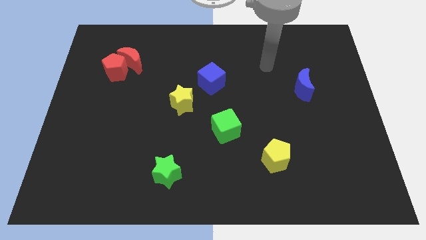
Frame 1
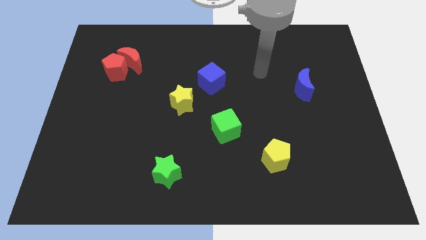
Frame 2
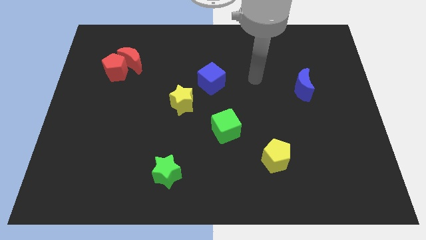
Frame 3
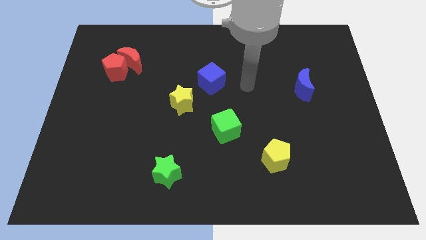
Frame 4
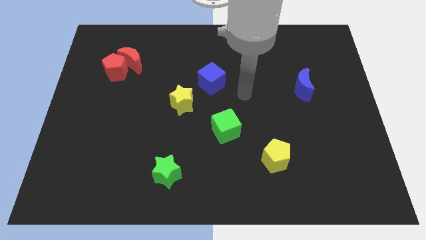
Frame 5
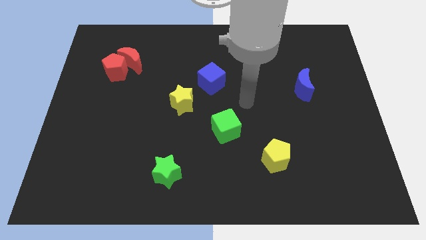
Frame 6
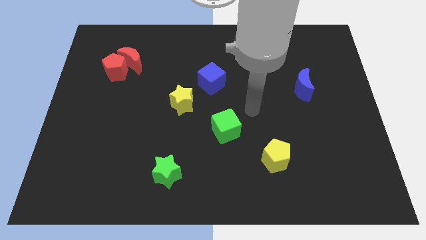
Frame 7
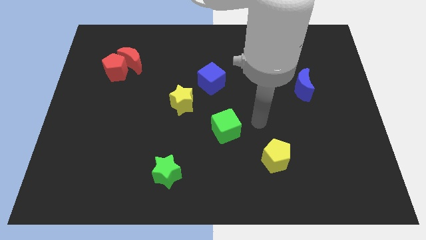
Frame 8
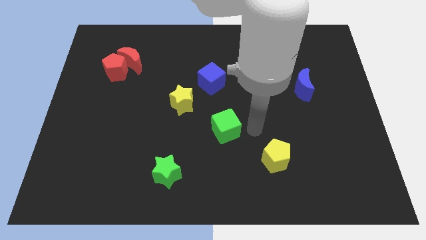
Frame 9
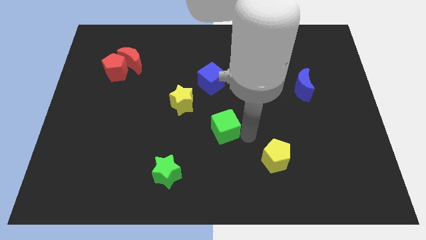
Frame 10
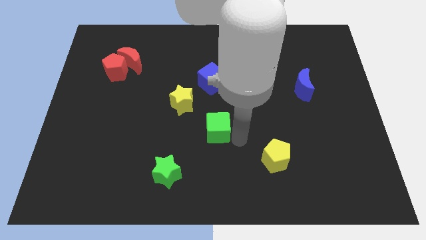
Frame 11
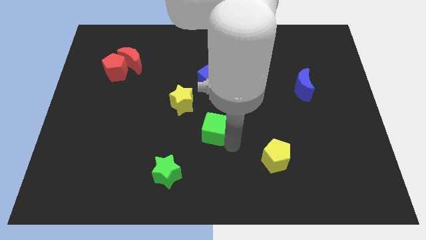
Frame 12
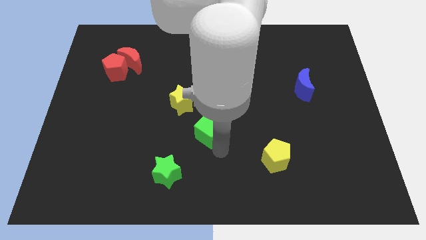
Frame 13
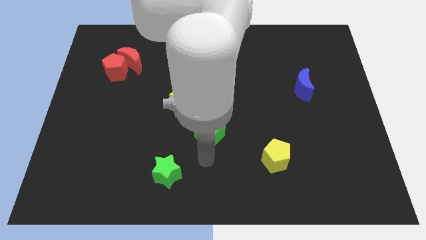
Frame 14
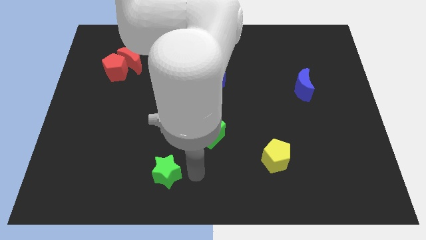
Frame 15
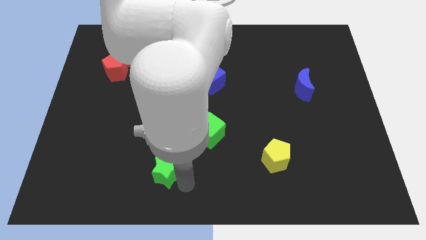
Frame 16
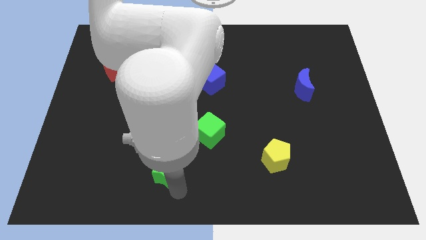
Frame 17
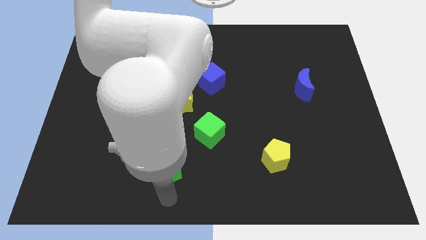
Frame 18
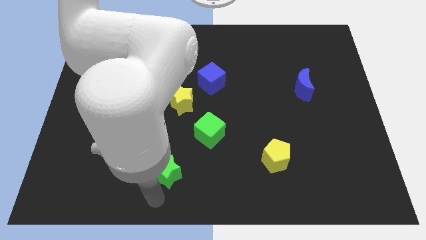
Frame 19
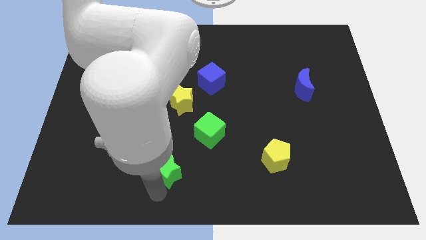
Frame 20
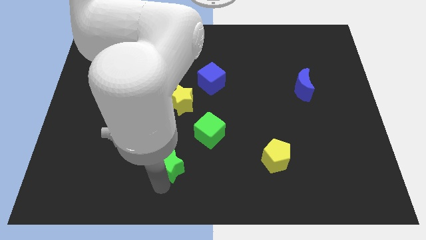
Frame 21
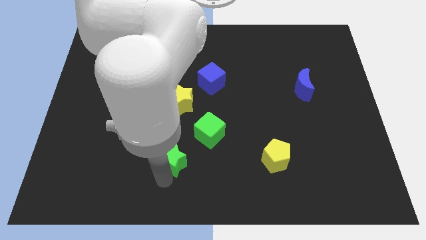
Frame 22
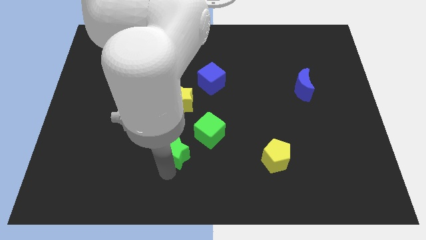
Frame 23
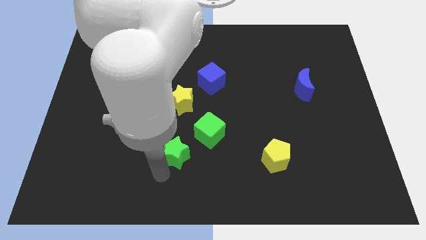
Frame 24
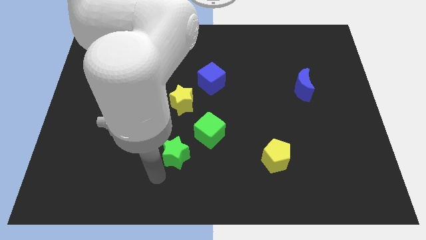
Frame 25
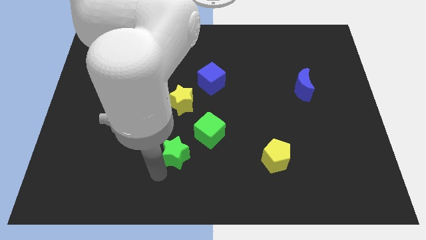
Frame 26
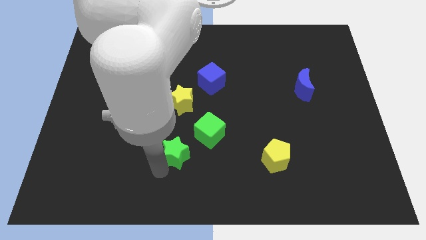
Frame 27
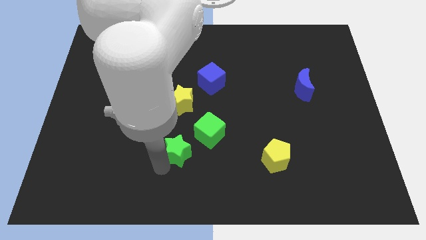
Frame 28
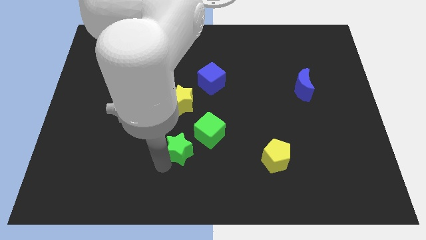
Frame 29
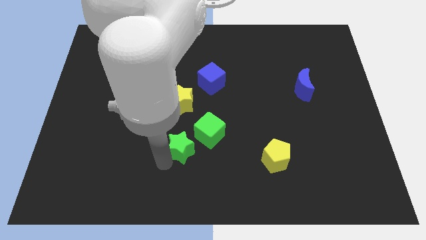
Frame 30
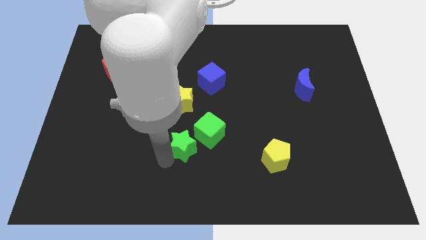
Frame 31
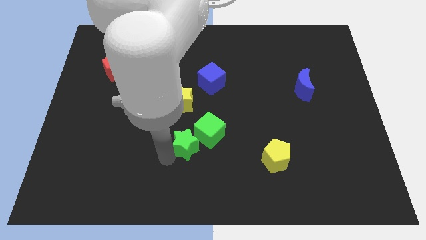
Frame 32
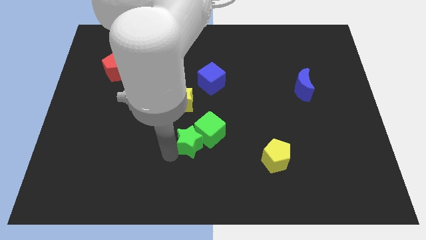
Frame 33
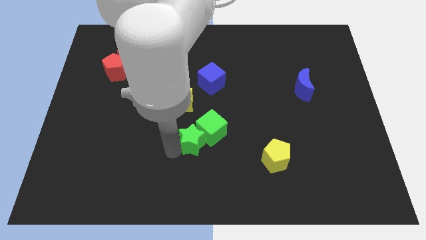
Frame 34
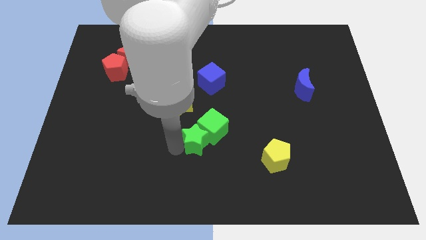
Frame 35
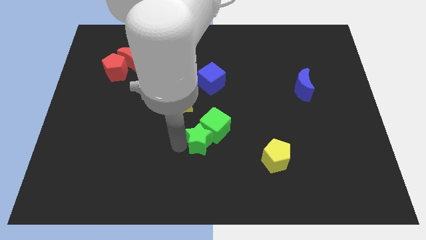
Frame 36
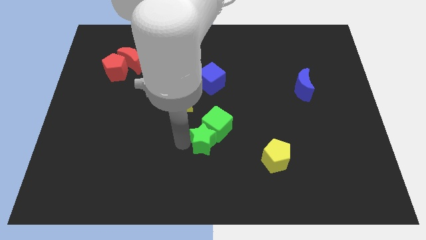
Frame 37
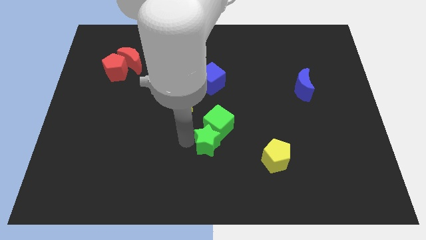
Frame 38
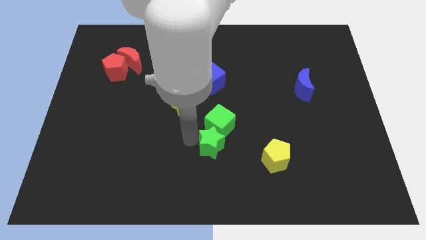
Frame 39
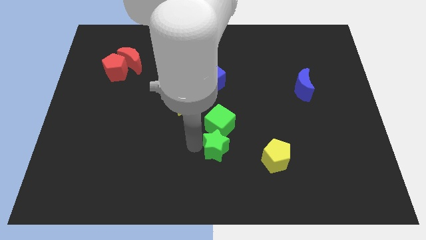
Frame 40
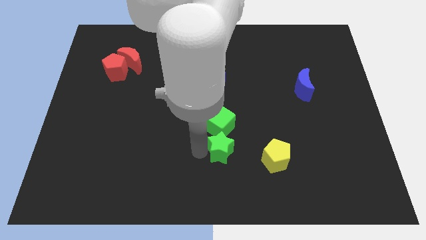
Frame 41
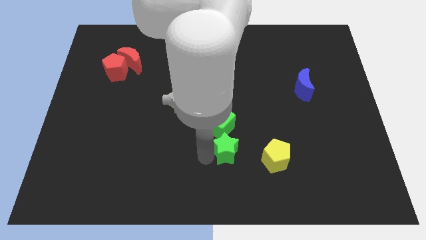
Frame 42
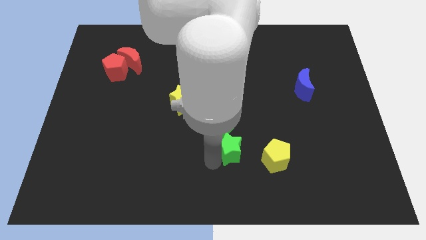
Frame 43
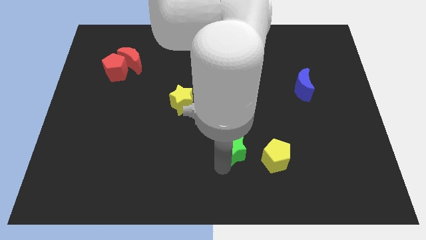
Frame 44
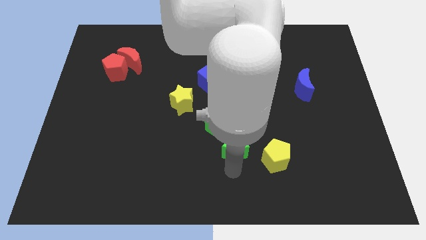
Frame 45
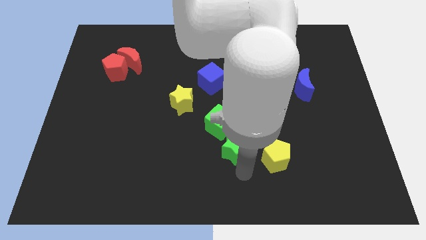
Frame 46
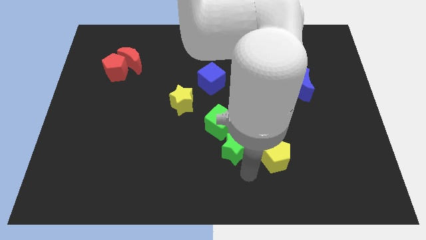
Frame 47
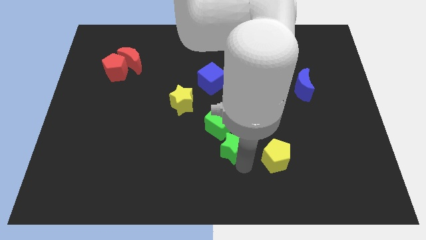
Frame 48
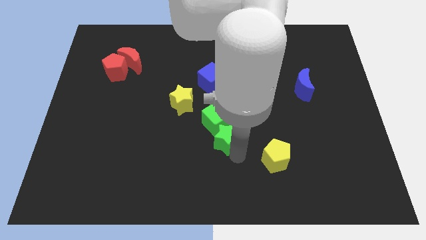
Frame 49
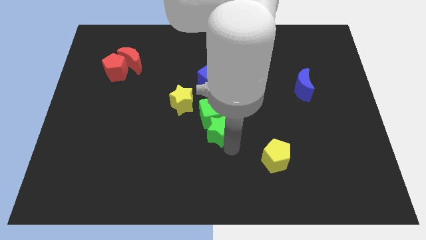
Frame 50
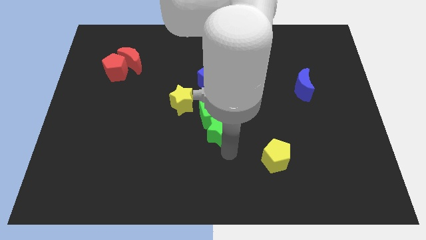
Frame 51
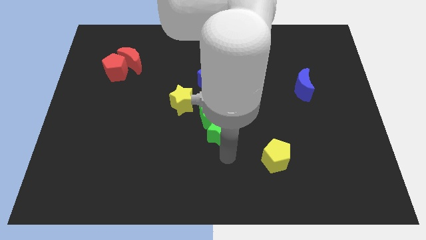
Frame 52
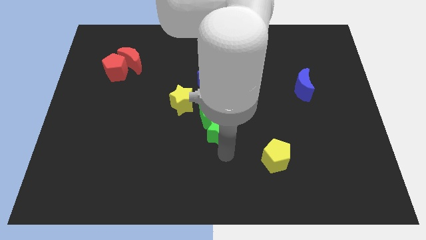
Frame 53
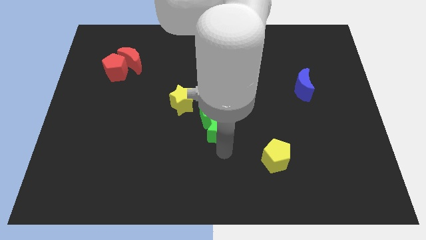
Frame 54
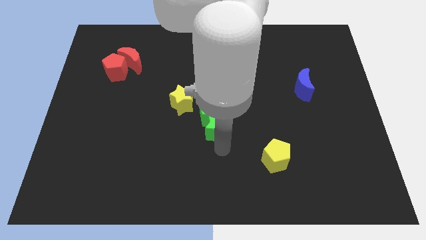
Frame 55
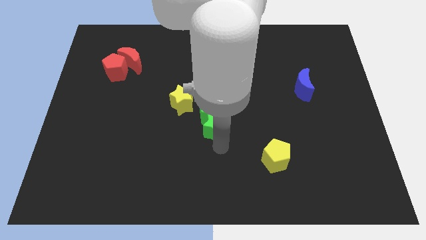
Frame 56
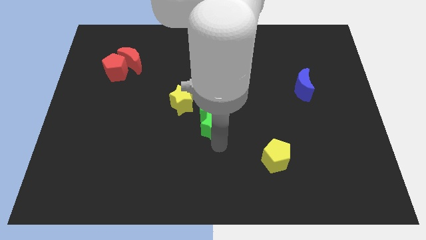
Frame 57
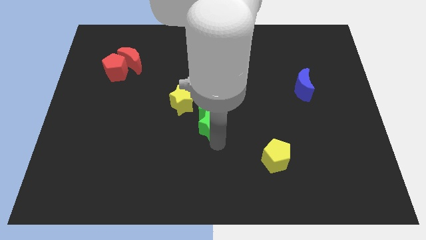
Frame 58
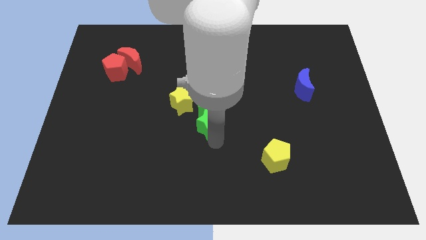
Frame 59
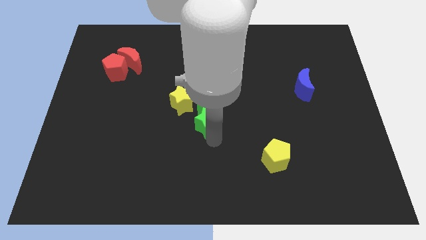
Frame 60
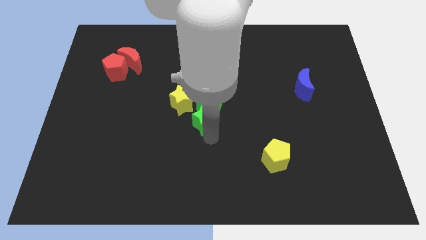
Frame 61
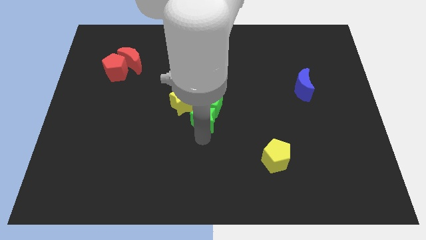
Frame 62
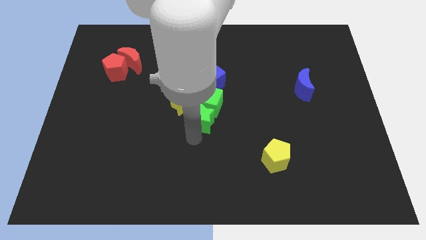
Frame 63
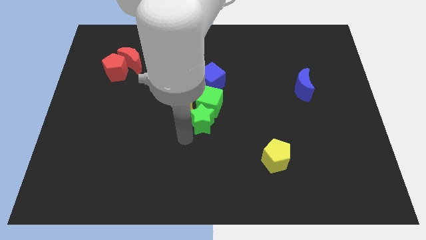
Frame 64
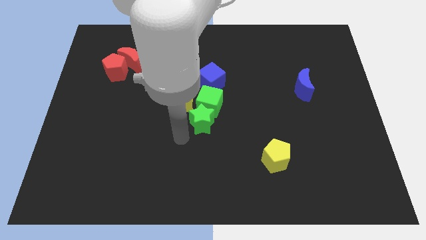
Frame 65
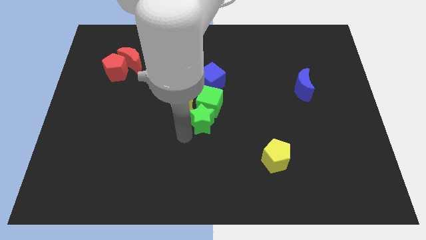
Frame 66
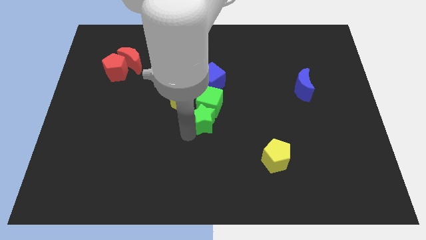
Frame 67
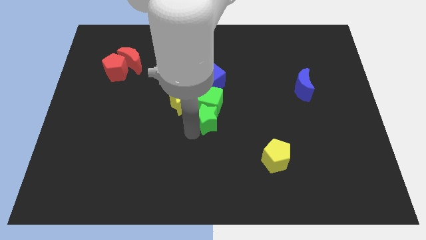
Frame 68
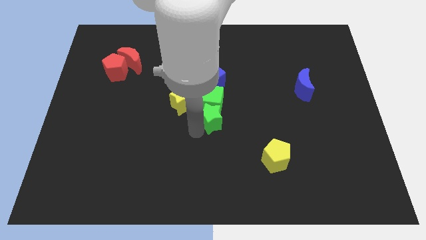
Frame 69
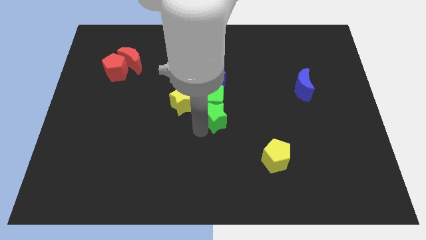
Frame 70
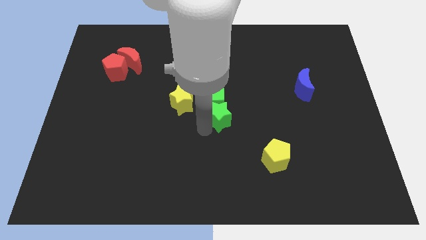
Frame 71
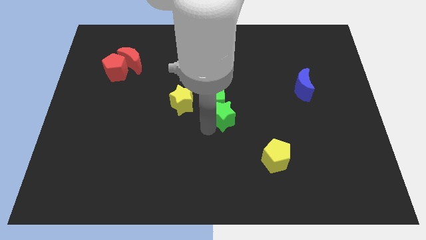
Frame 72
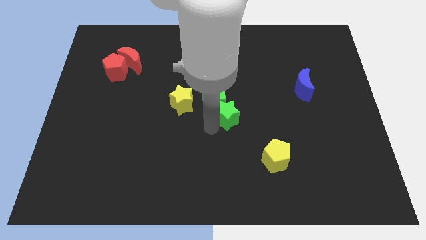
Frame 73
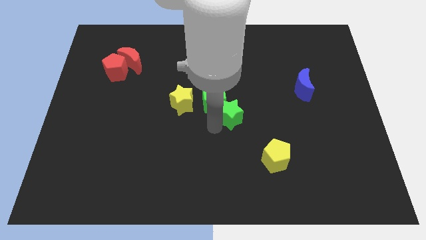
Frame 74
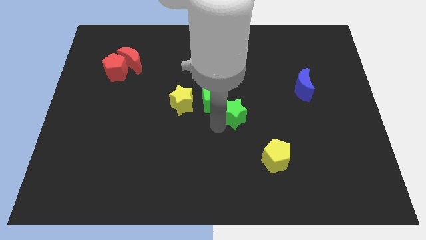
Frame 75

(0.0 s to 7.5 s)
move the green star to the bottom right of the blue cube
